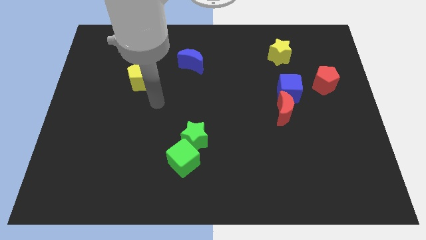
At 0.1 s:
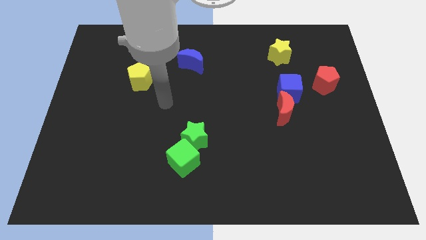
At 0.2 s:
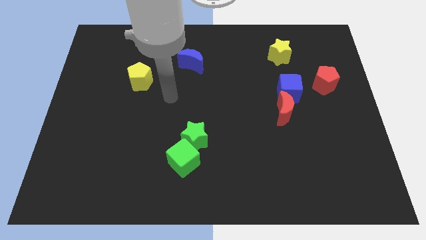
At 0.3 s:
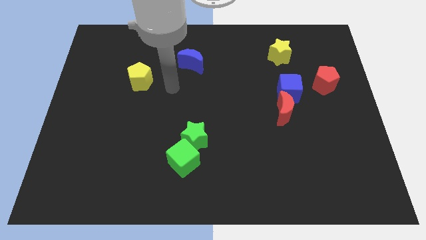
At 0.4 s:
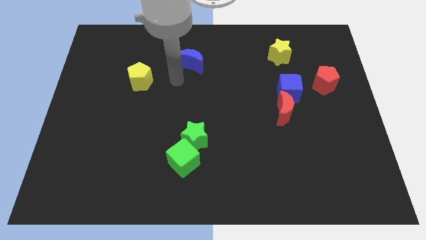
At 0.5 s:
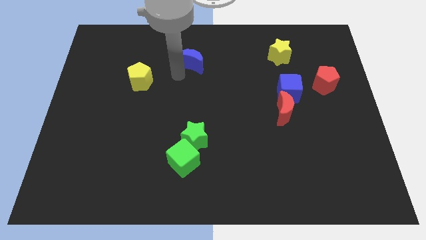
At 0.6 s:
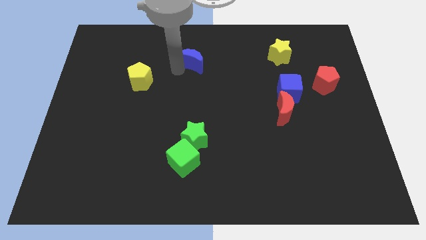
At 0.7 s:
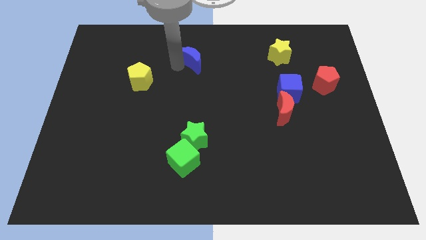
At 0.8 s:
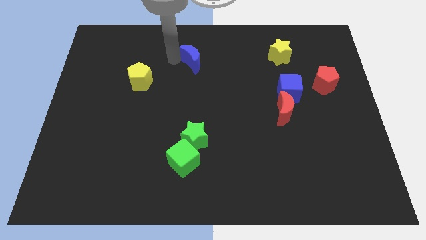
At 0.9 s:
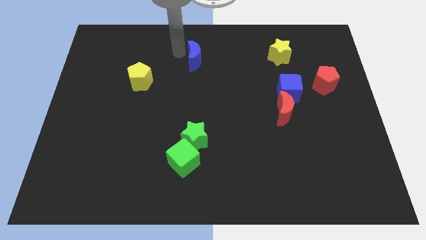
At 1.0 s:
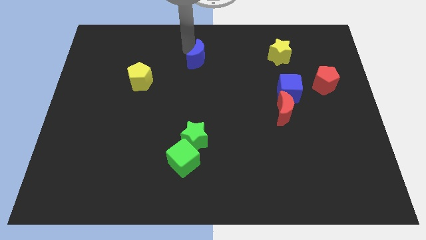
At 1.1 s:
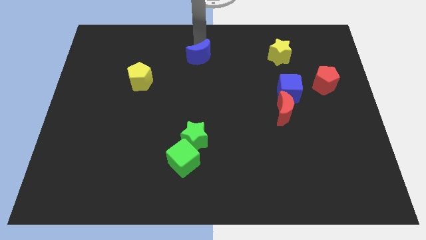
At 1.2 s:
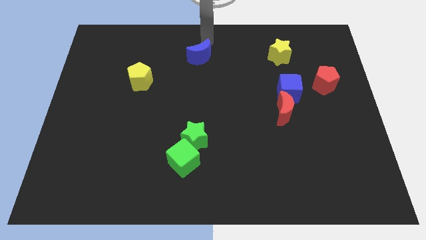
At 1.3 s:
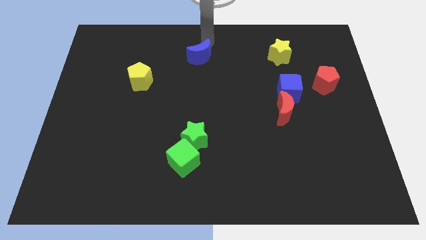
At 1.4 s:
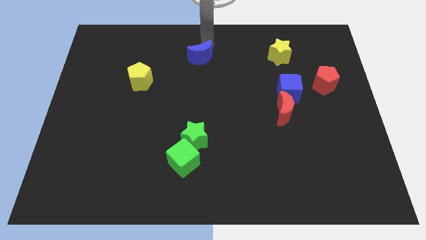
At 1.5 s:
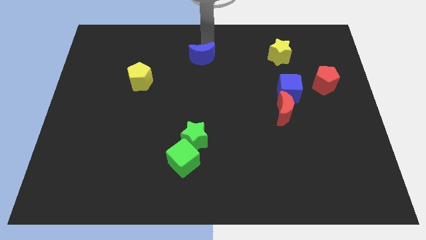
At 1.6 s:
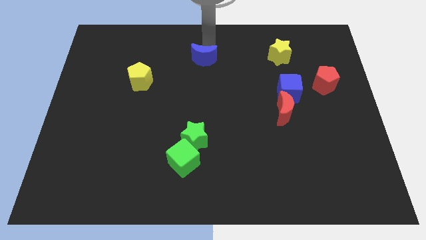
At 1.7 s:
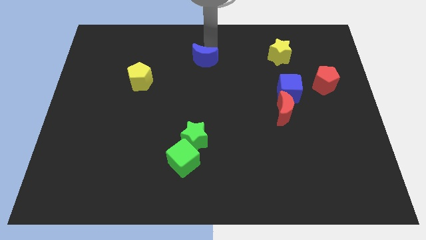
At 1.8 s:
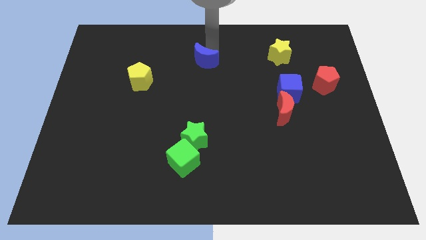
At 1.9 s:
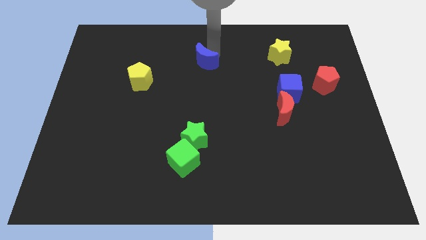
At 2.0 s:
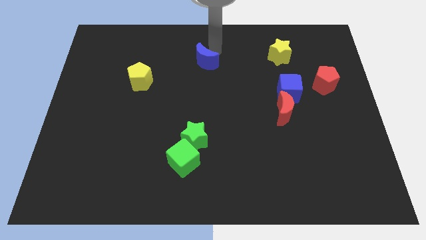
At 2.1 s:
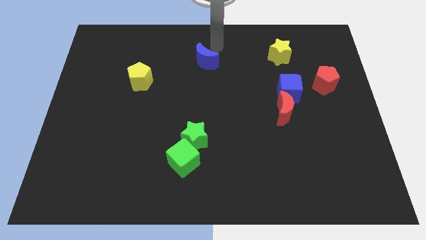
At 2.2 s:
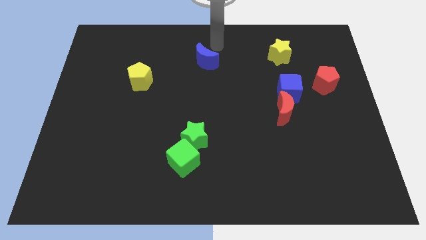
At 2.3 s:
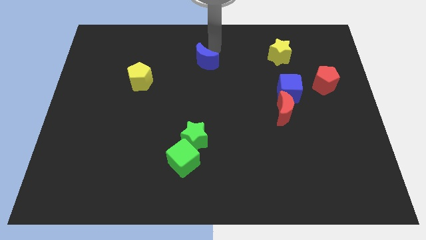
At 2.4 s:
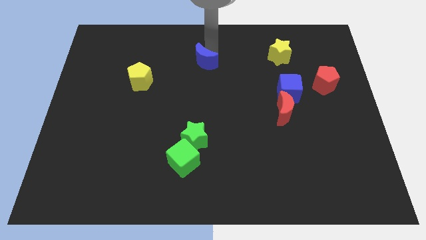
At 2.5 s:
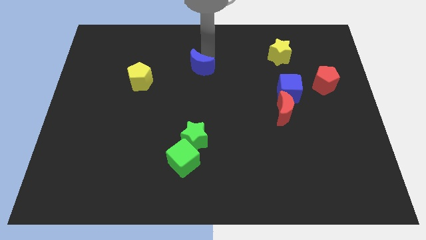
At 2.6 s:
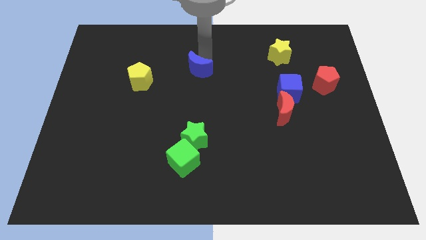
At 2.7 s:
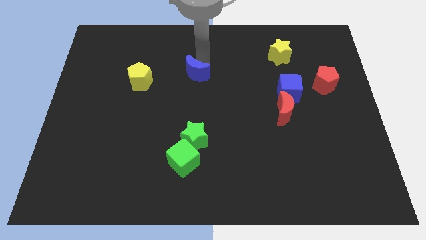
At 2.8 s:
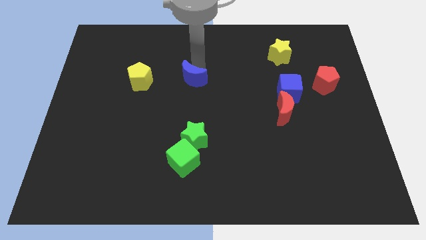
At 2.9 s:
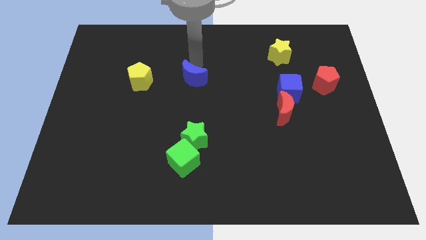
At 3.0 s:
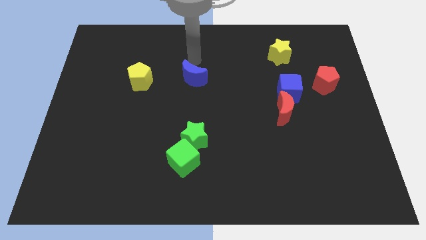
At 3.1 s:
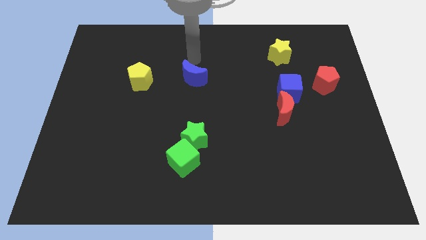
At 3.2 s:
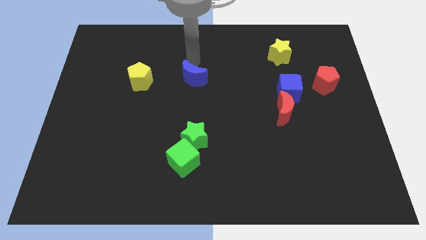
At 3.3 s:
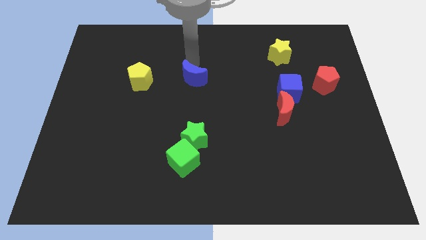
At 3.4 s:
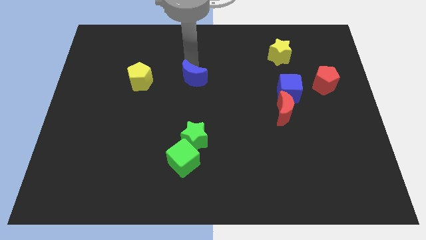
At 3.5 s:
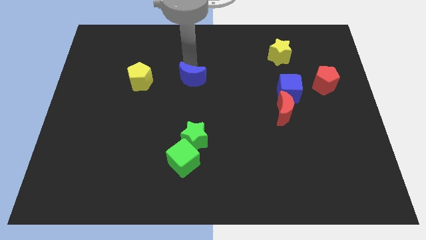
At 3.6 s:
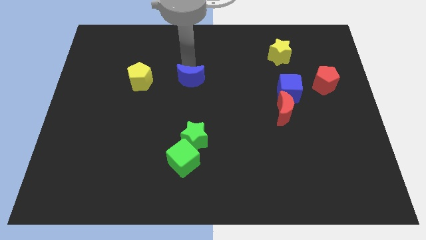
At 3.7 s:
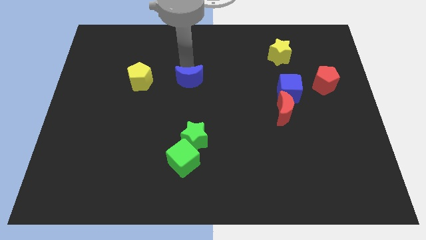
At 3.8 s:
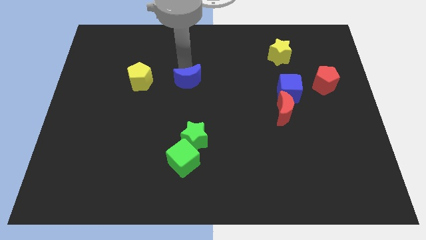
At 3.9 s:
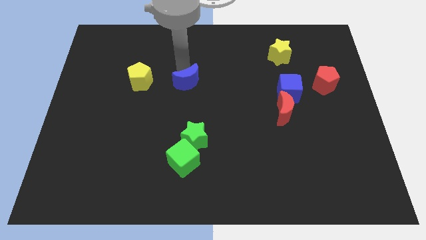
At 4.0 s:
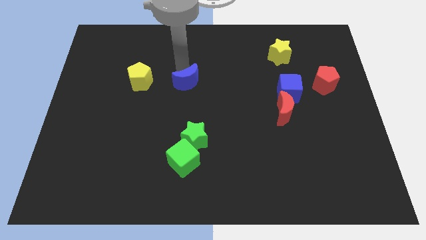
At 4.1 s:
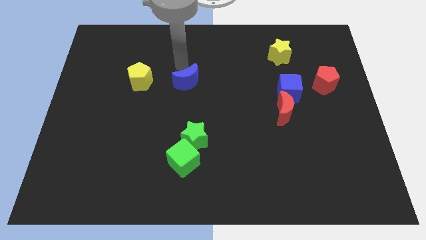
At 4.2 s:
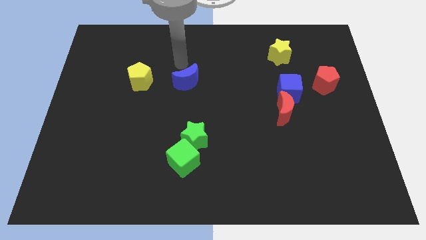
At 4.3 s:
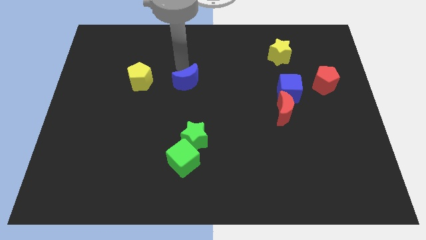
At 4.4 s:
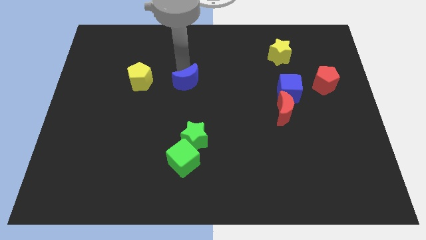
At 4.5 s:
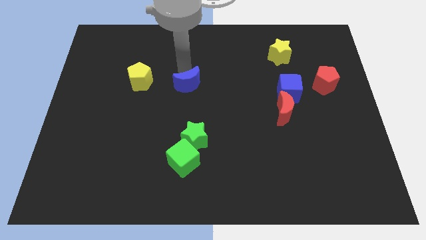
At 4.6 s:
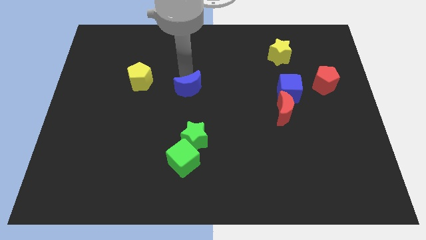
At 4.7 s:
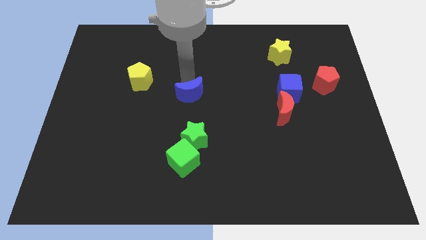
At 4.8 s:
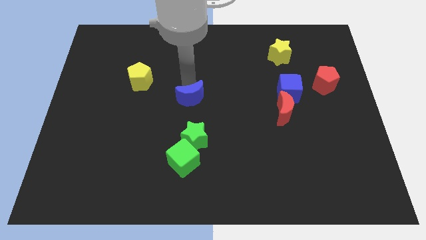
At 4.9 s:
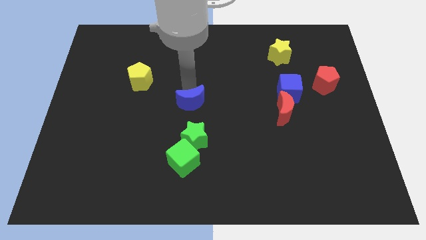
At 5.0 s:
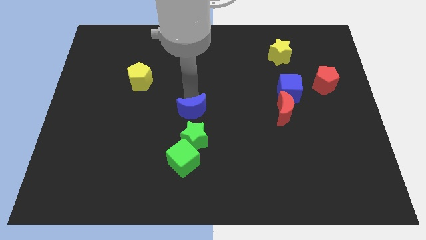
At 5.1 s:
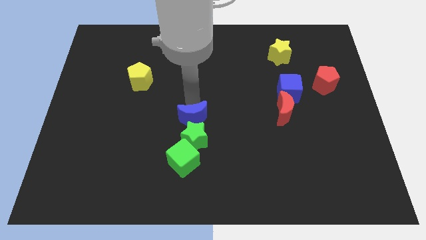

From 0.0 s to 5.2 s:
slide the blue moon close to the green star

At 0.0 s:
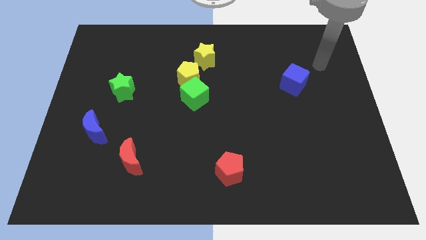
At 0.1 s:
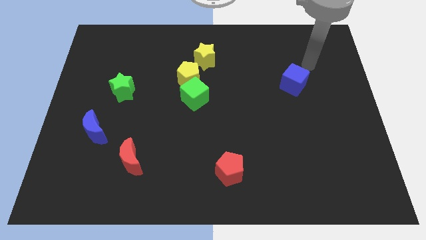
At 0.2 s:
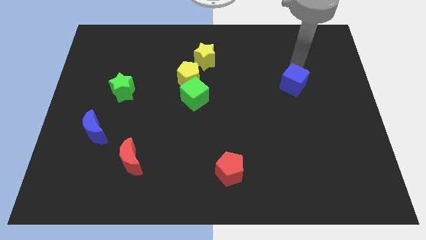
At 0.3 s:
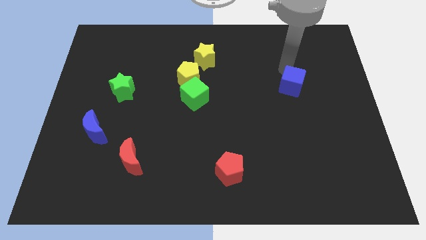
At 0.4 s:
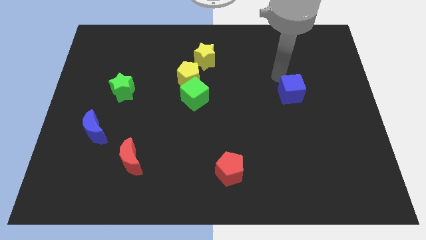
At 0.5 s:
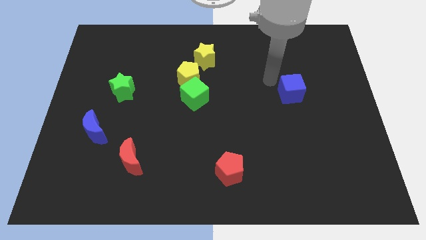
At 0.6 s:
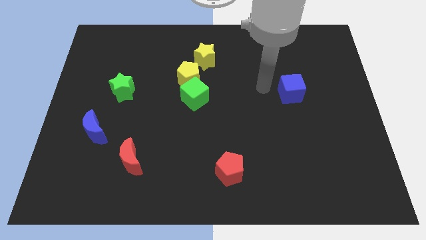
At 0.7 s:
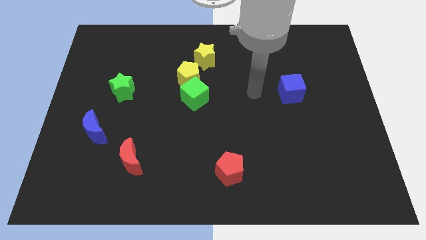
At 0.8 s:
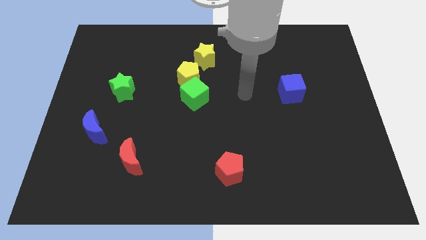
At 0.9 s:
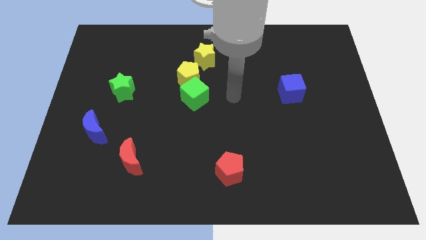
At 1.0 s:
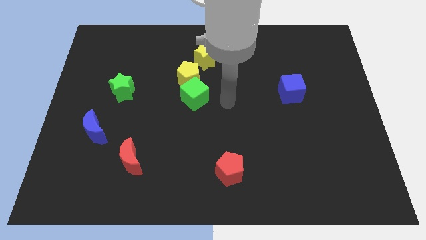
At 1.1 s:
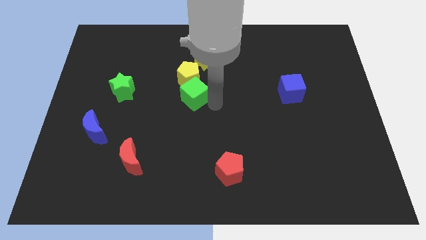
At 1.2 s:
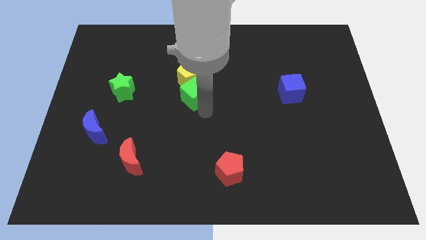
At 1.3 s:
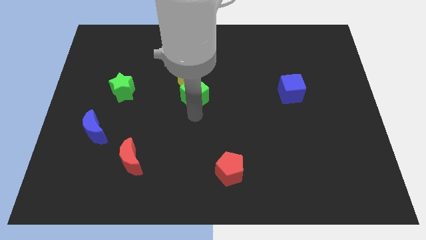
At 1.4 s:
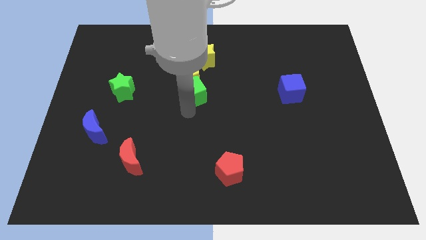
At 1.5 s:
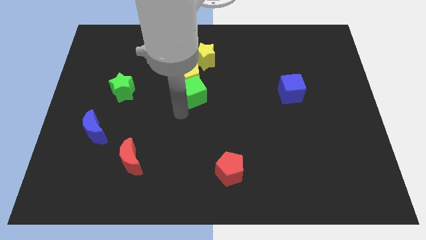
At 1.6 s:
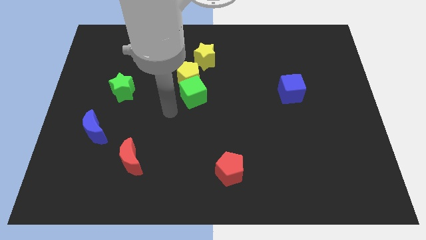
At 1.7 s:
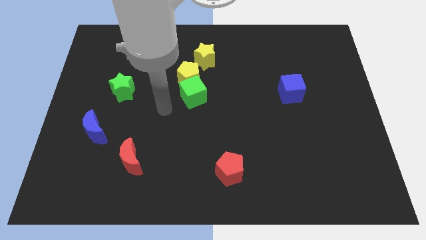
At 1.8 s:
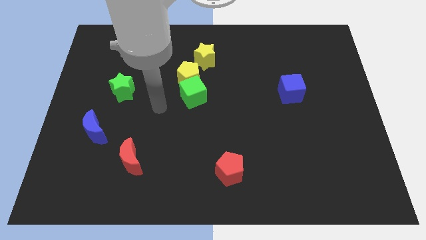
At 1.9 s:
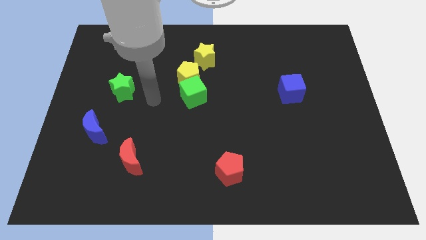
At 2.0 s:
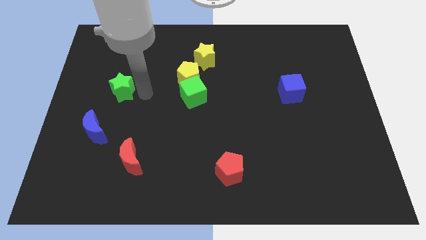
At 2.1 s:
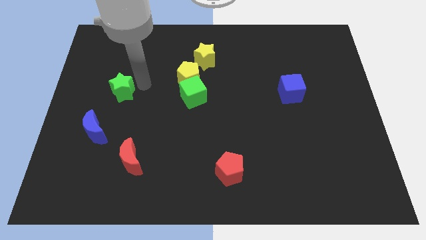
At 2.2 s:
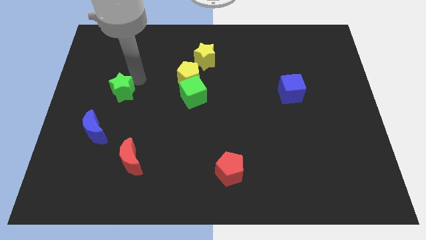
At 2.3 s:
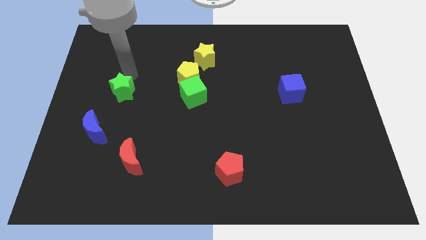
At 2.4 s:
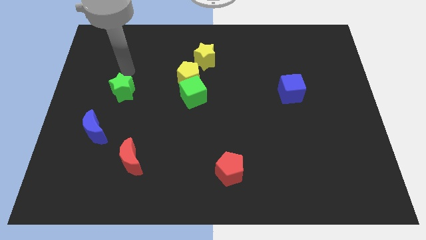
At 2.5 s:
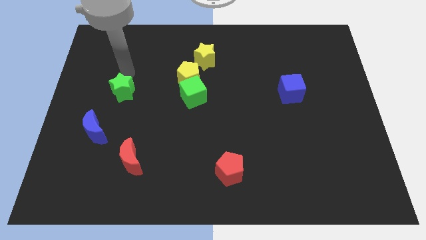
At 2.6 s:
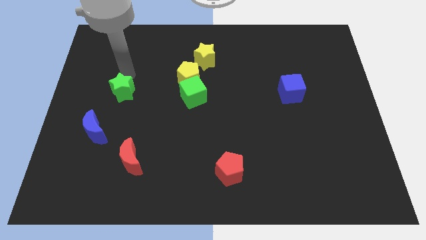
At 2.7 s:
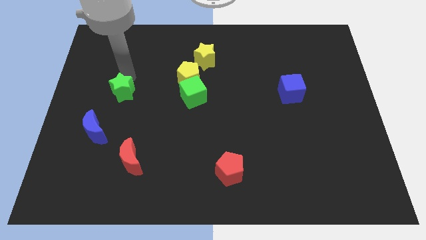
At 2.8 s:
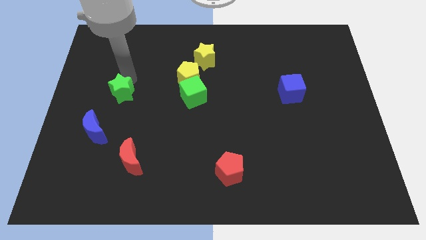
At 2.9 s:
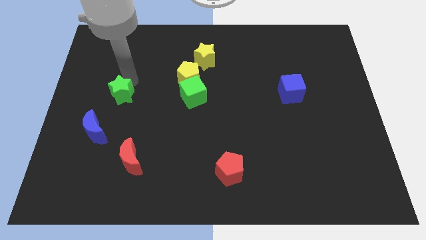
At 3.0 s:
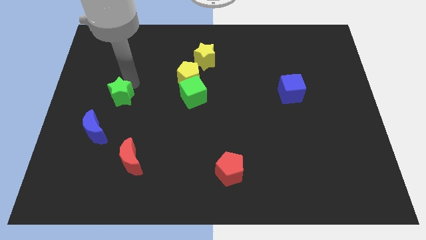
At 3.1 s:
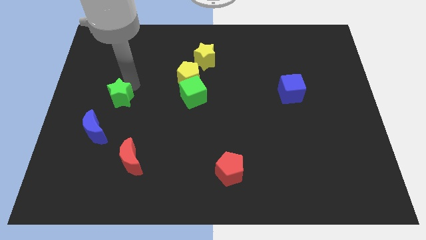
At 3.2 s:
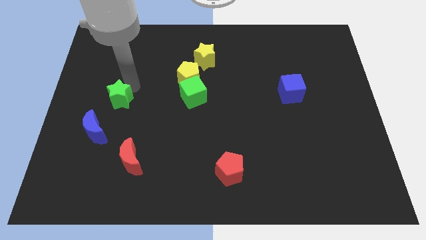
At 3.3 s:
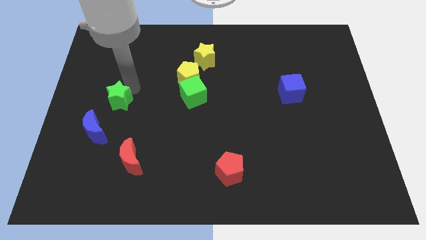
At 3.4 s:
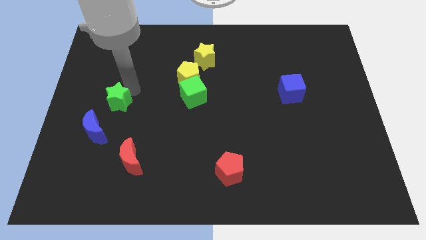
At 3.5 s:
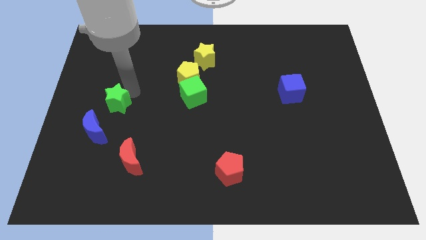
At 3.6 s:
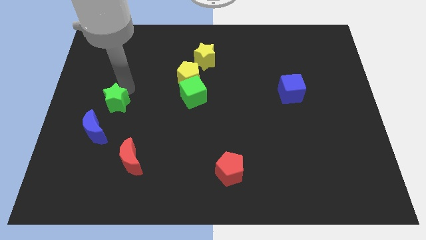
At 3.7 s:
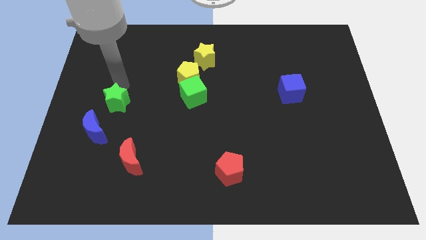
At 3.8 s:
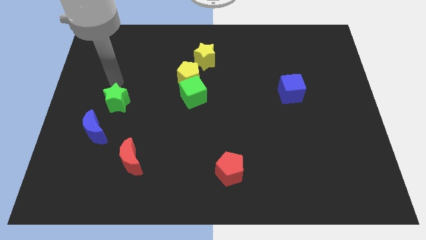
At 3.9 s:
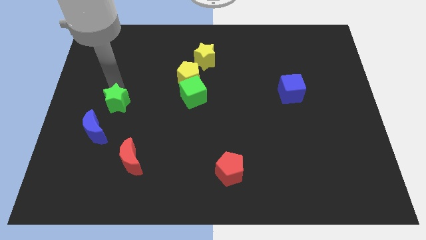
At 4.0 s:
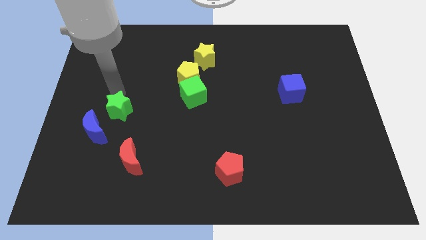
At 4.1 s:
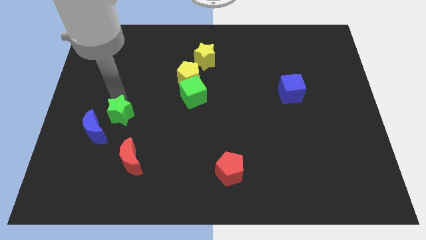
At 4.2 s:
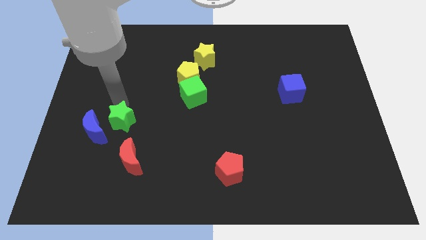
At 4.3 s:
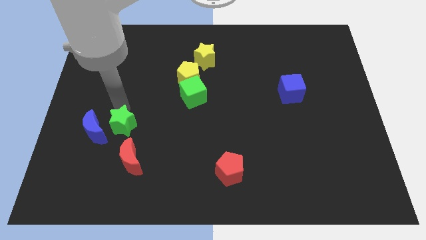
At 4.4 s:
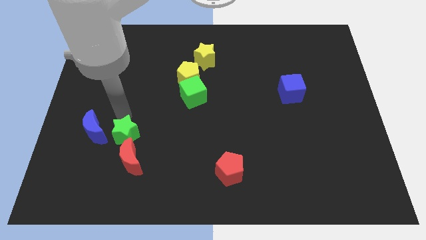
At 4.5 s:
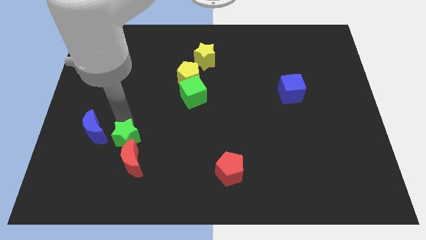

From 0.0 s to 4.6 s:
move the green star towards the red moon
